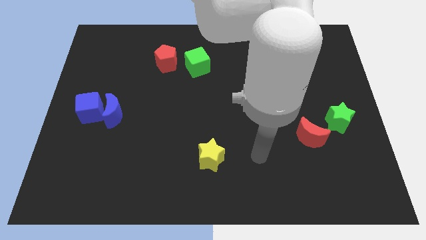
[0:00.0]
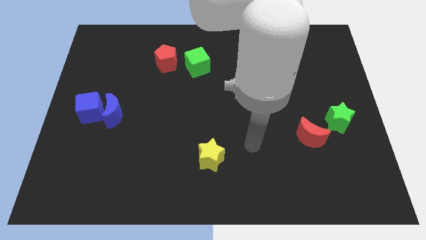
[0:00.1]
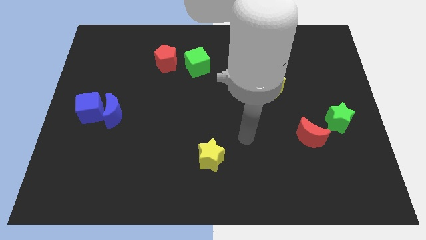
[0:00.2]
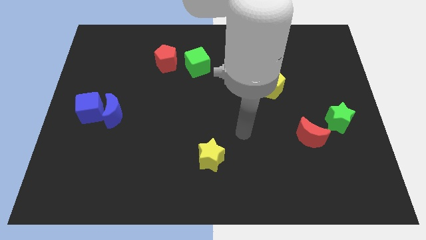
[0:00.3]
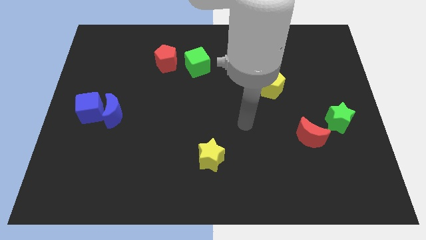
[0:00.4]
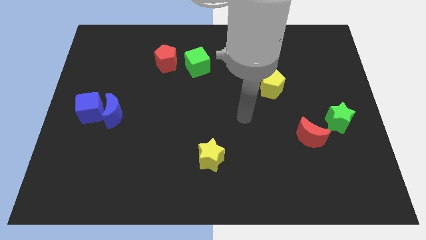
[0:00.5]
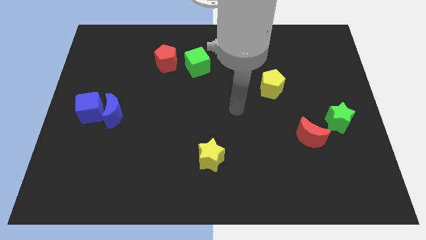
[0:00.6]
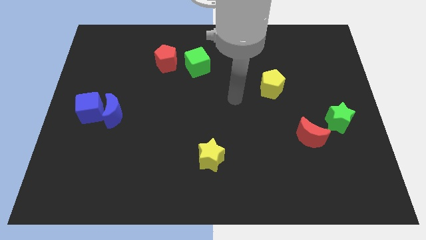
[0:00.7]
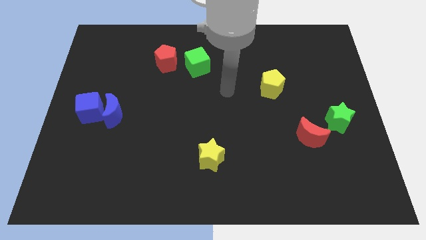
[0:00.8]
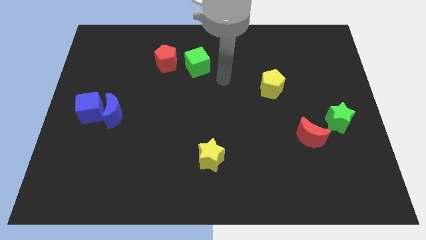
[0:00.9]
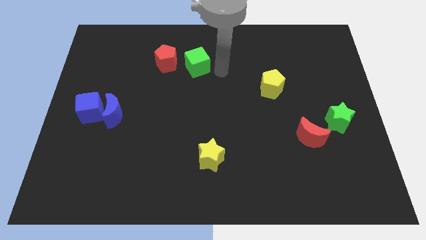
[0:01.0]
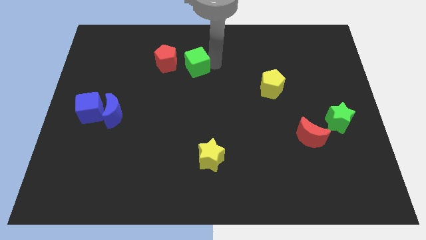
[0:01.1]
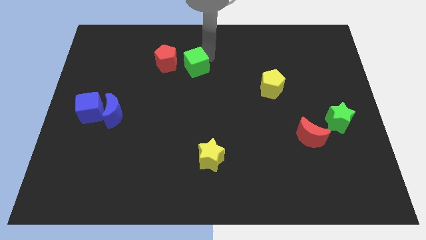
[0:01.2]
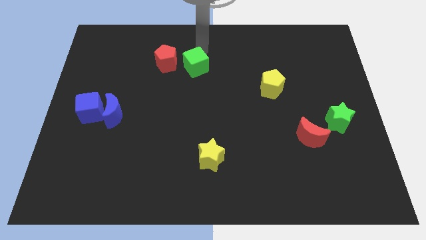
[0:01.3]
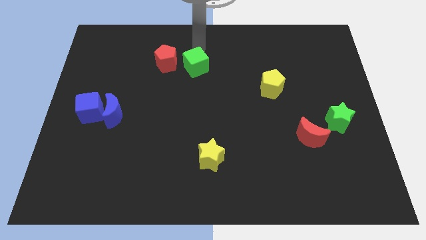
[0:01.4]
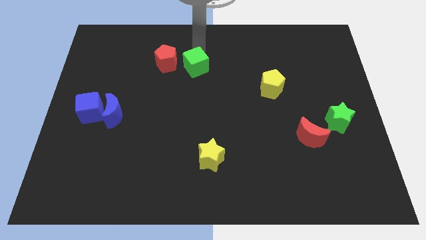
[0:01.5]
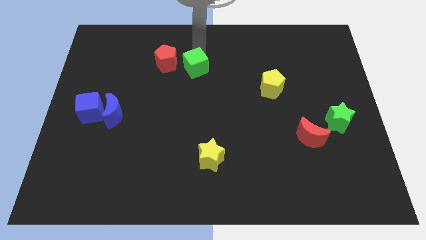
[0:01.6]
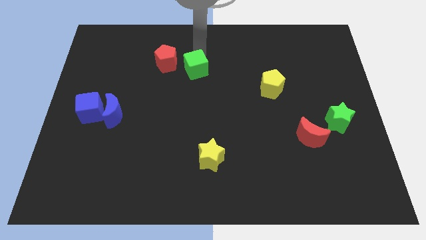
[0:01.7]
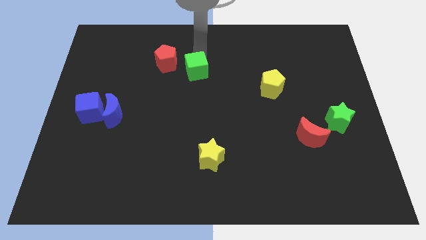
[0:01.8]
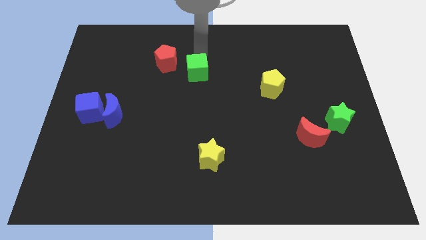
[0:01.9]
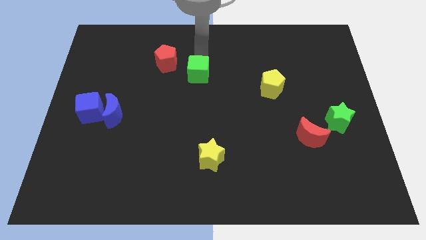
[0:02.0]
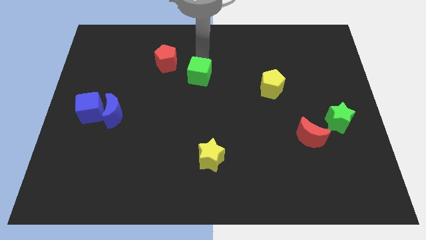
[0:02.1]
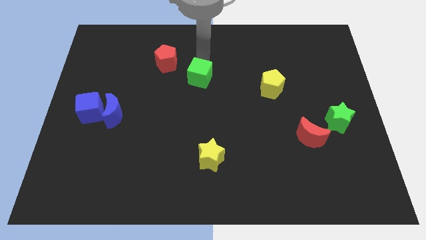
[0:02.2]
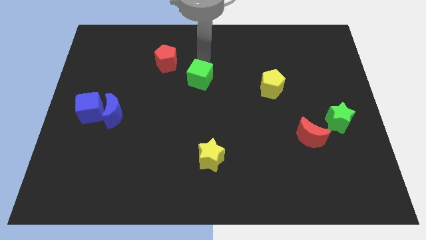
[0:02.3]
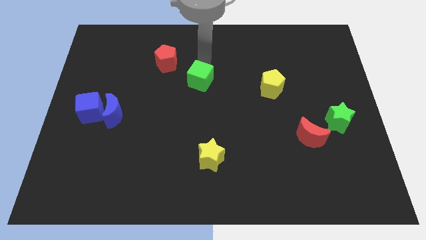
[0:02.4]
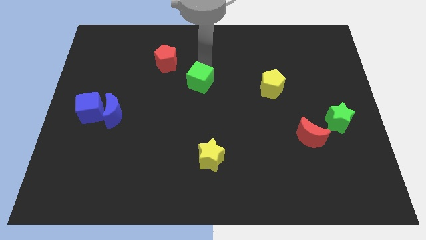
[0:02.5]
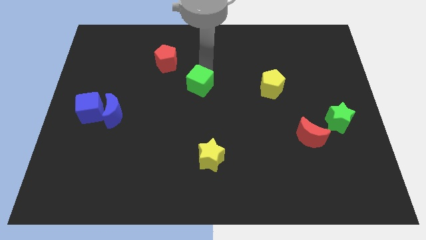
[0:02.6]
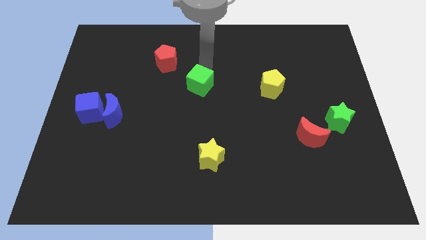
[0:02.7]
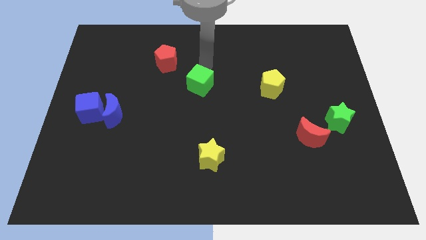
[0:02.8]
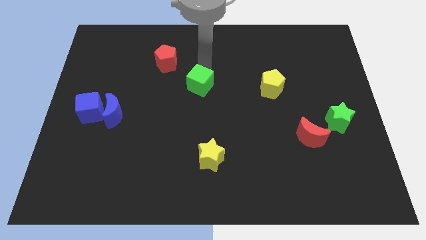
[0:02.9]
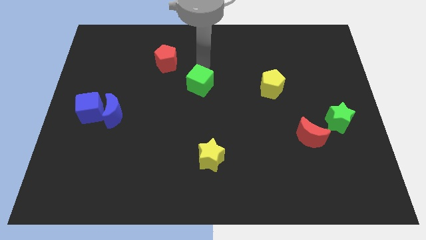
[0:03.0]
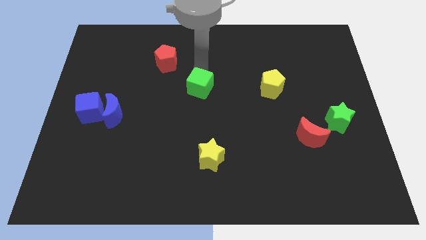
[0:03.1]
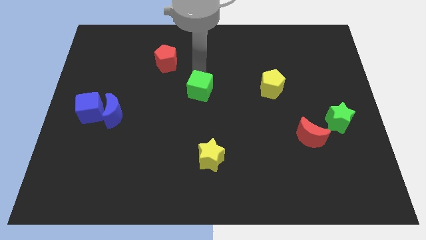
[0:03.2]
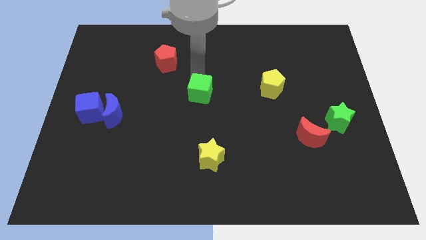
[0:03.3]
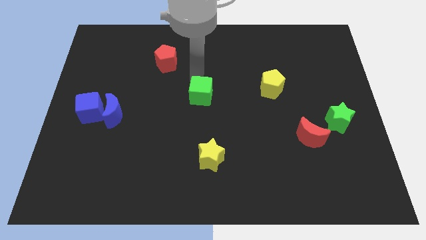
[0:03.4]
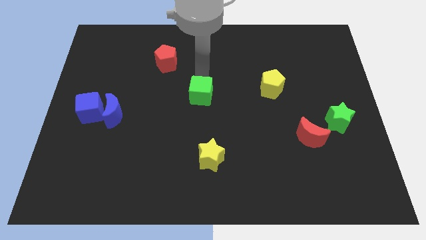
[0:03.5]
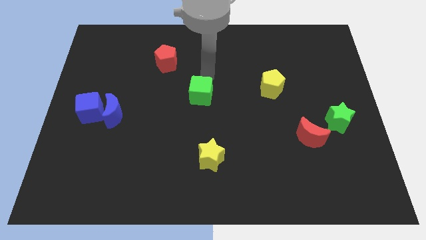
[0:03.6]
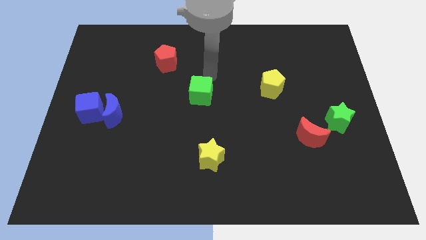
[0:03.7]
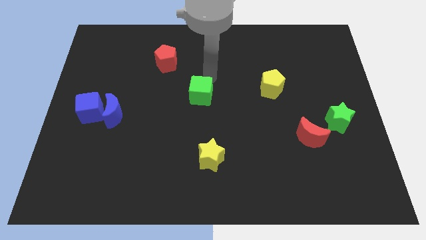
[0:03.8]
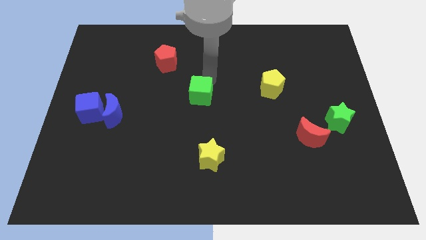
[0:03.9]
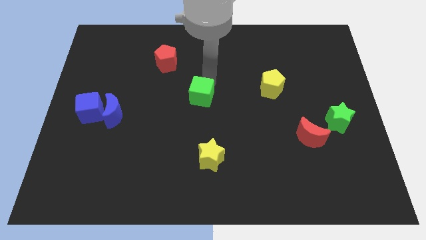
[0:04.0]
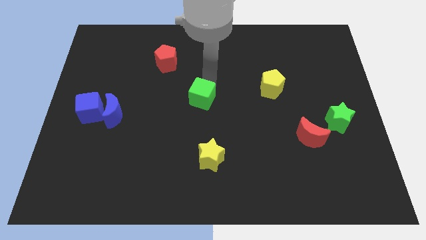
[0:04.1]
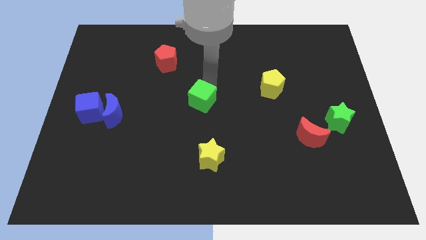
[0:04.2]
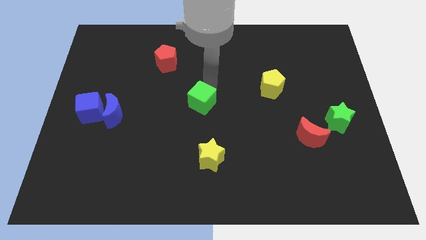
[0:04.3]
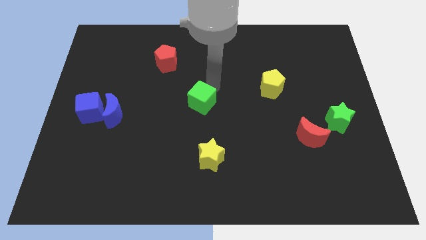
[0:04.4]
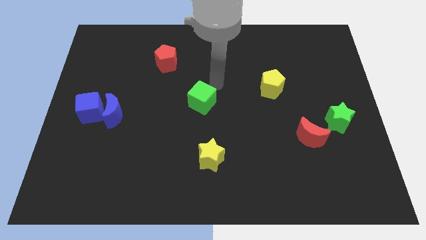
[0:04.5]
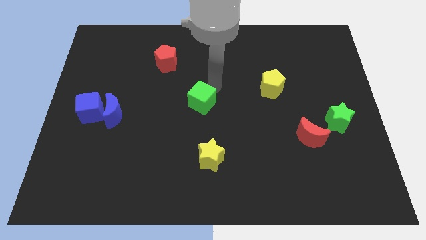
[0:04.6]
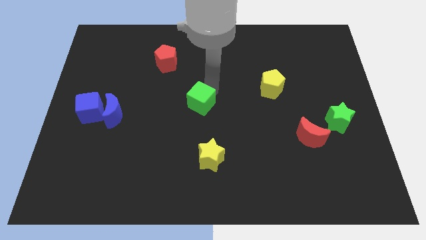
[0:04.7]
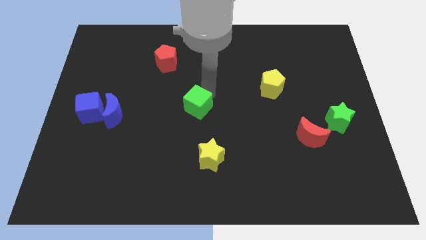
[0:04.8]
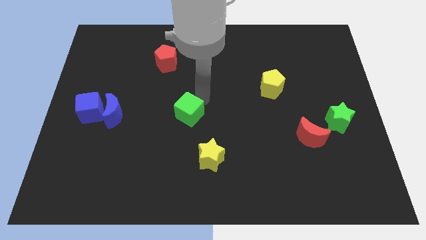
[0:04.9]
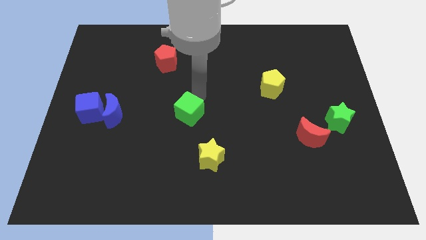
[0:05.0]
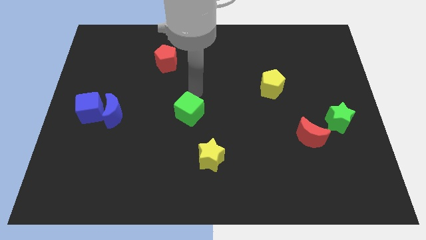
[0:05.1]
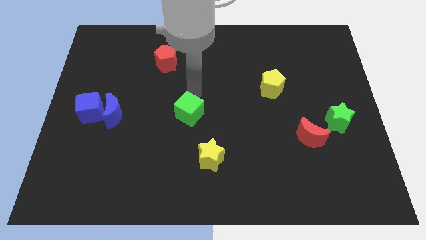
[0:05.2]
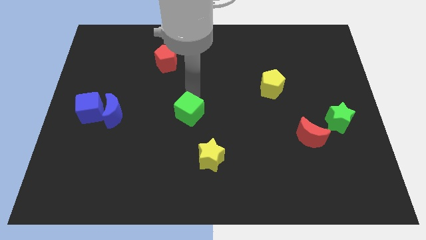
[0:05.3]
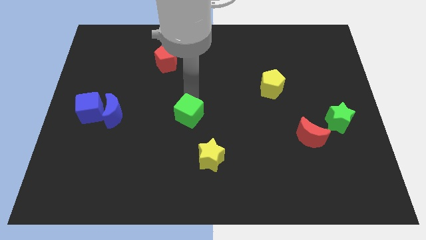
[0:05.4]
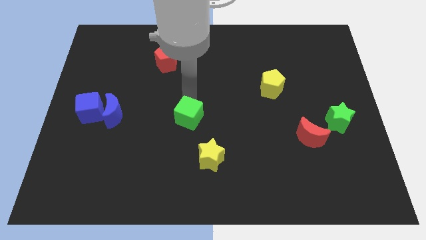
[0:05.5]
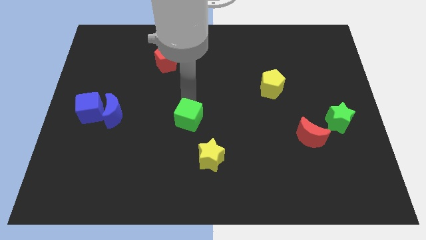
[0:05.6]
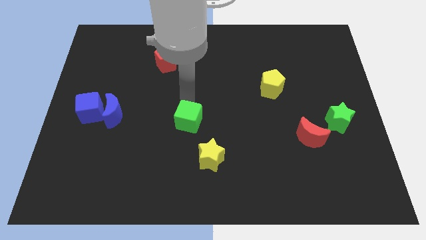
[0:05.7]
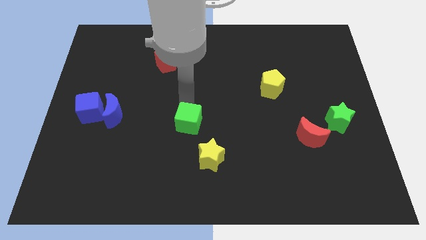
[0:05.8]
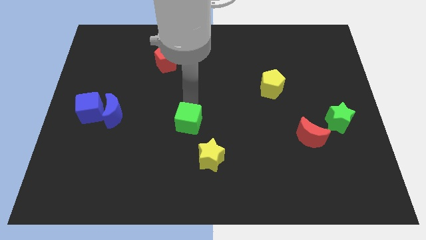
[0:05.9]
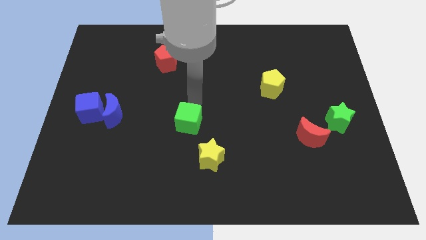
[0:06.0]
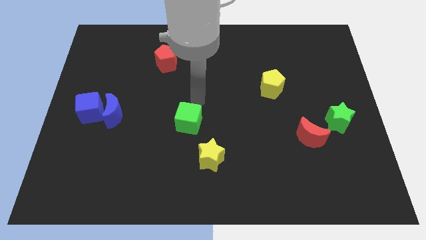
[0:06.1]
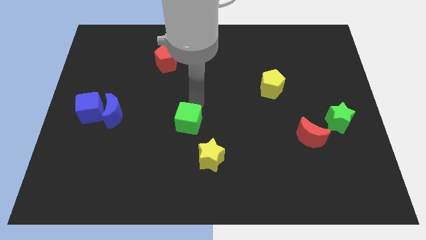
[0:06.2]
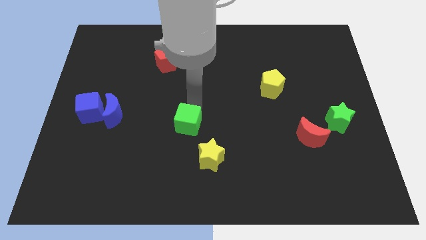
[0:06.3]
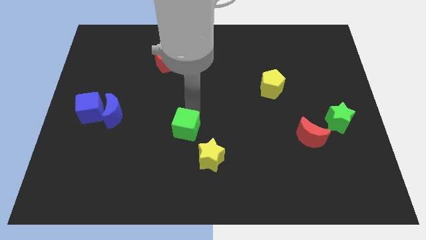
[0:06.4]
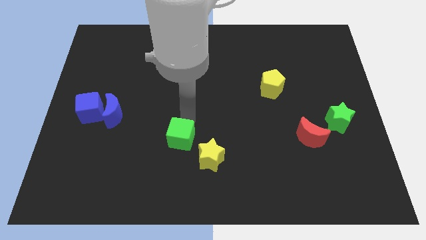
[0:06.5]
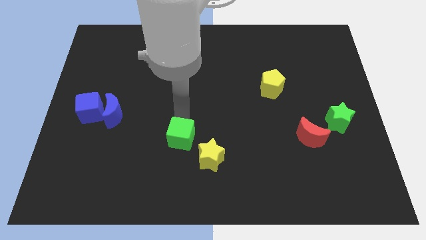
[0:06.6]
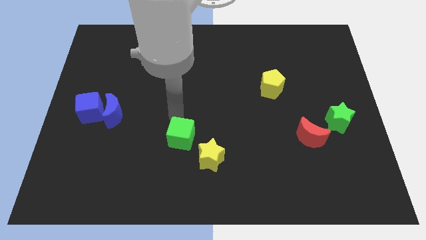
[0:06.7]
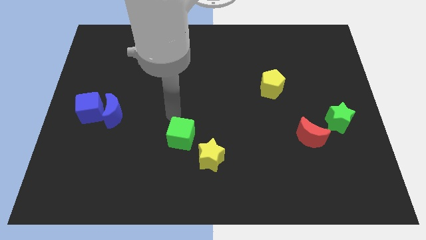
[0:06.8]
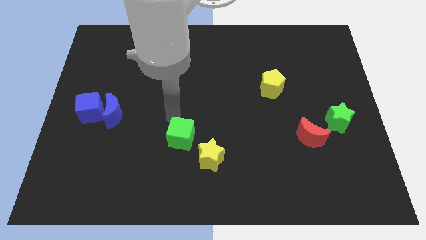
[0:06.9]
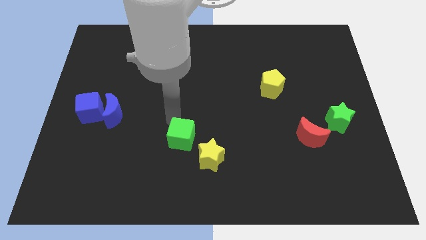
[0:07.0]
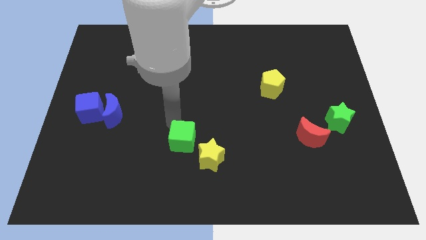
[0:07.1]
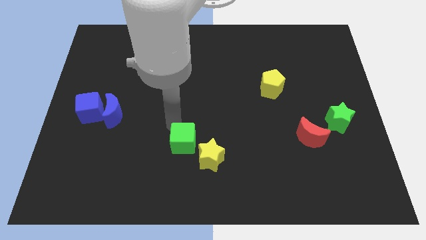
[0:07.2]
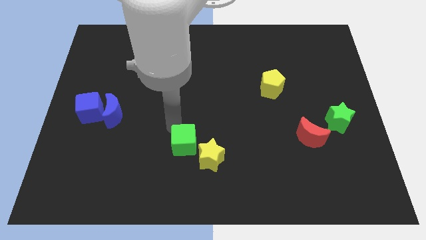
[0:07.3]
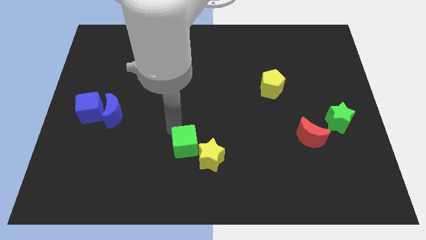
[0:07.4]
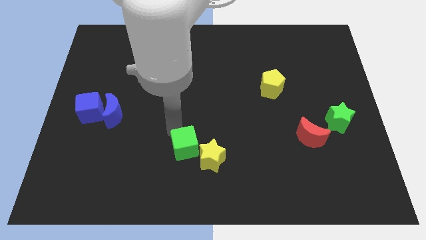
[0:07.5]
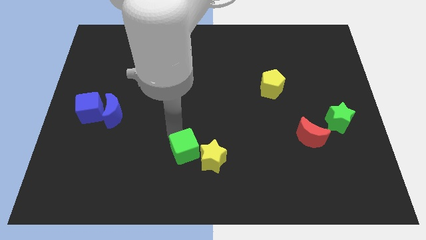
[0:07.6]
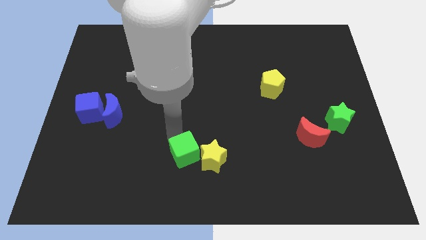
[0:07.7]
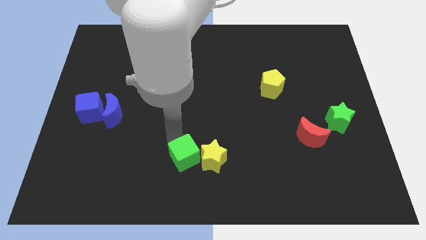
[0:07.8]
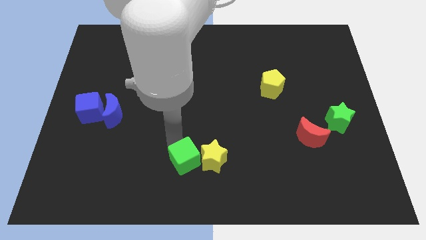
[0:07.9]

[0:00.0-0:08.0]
put the green cube to the bottom
